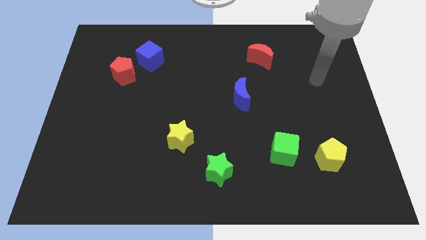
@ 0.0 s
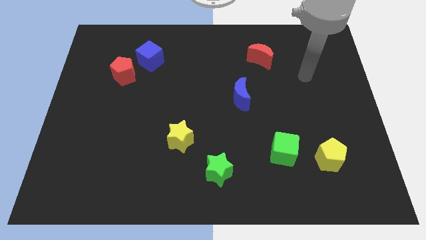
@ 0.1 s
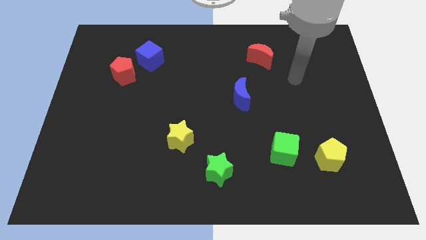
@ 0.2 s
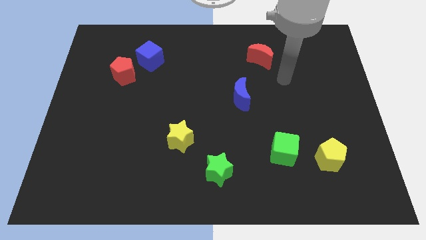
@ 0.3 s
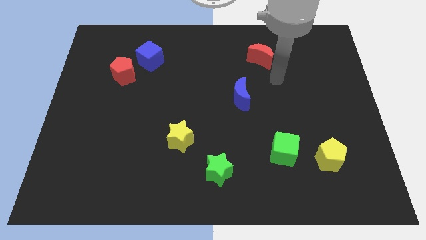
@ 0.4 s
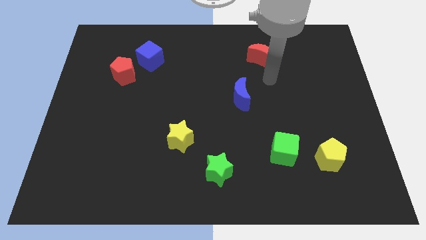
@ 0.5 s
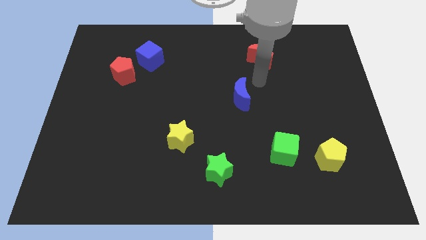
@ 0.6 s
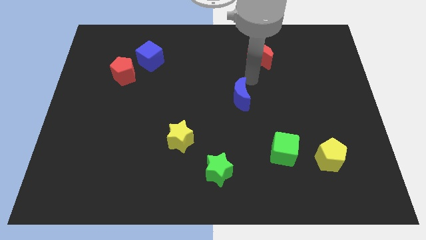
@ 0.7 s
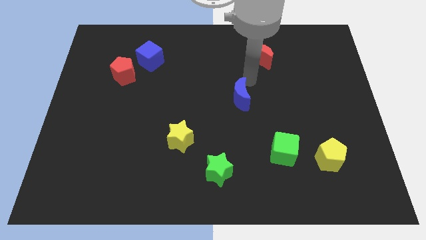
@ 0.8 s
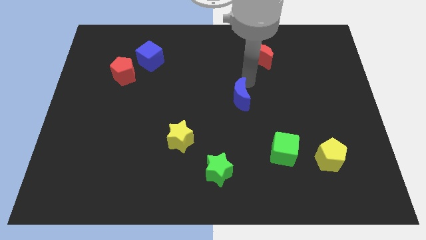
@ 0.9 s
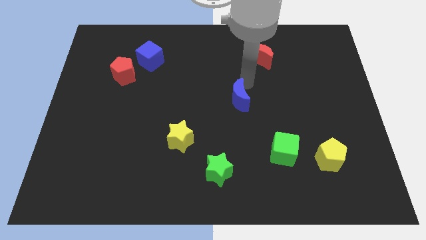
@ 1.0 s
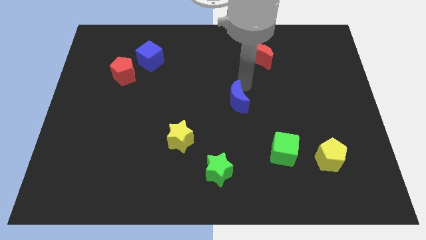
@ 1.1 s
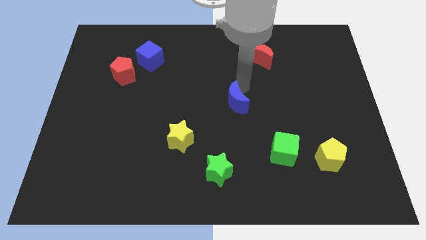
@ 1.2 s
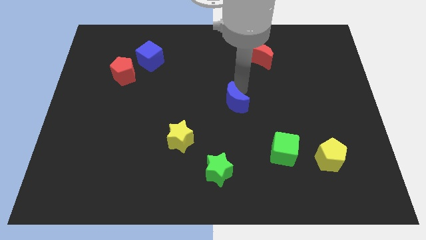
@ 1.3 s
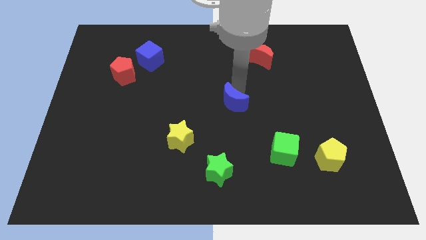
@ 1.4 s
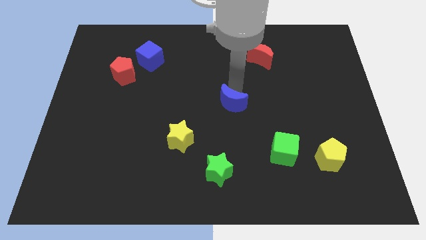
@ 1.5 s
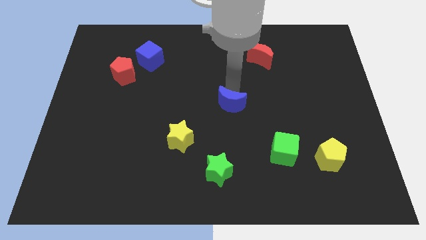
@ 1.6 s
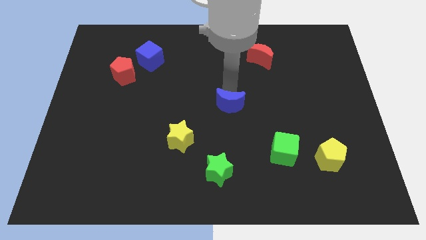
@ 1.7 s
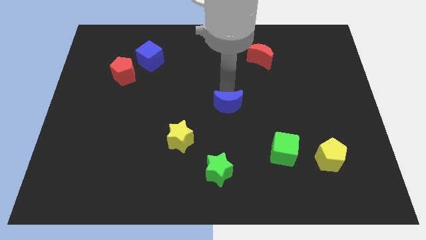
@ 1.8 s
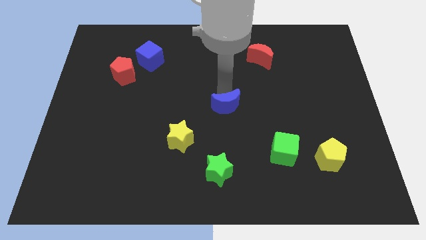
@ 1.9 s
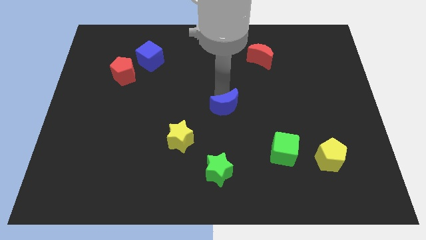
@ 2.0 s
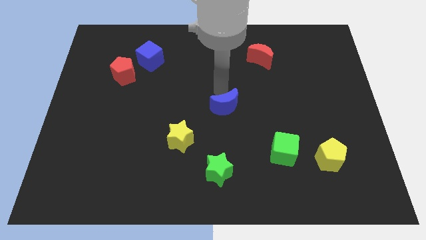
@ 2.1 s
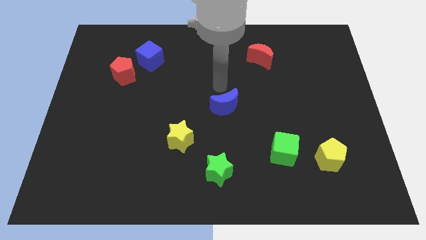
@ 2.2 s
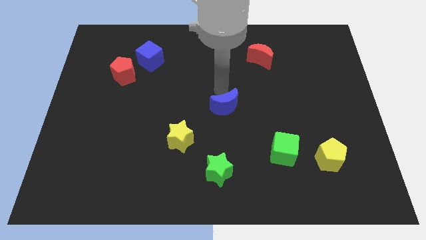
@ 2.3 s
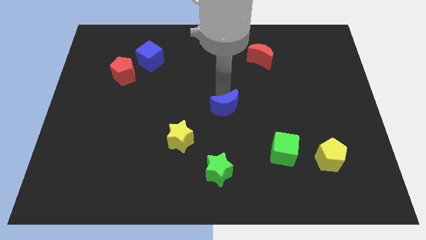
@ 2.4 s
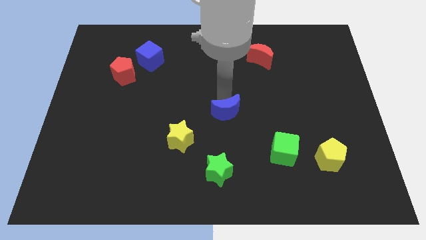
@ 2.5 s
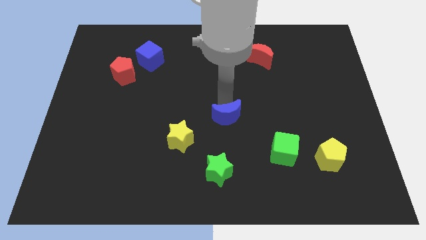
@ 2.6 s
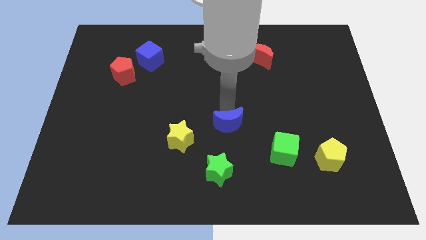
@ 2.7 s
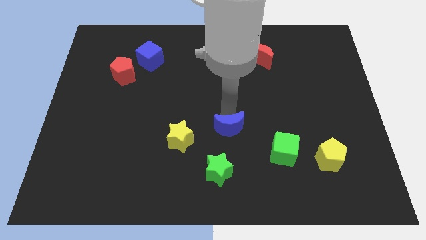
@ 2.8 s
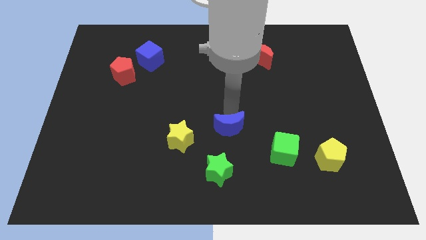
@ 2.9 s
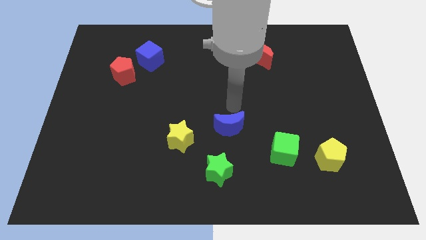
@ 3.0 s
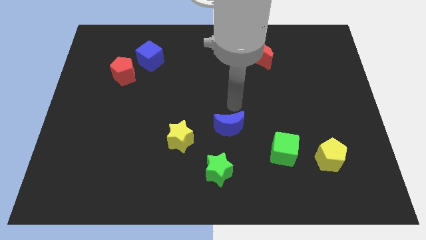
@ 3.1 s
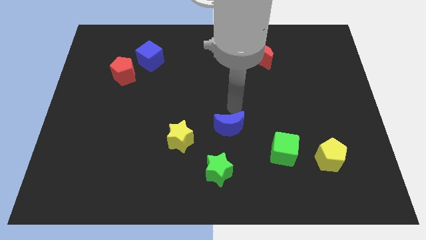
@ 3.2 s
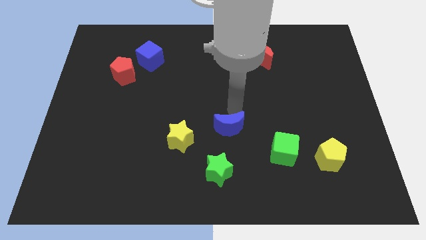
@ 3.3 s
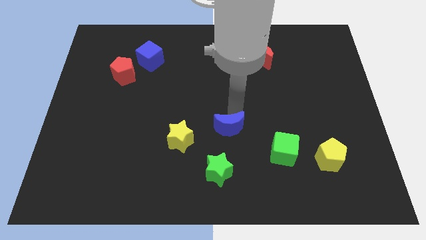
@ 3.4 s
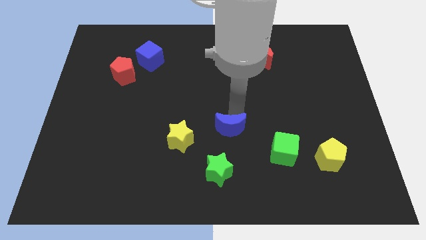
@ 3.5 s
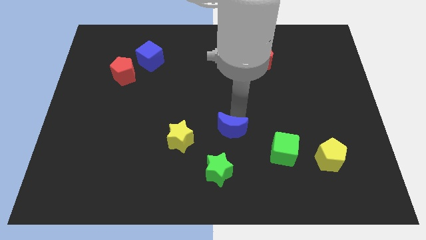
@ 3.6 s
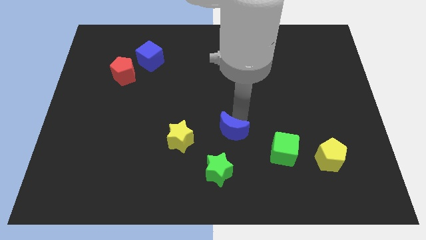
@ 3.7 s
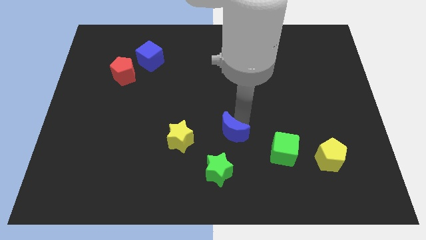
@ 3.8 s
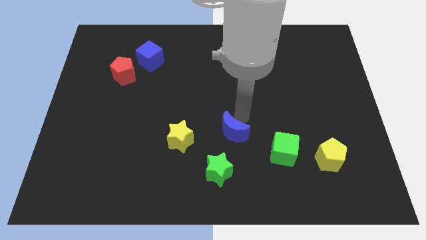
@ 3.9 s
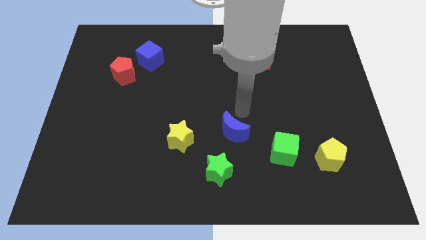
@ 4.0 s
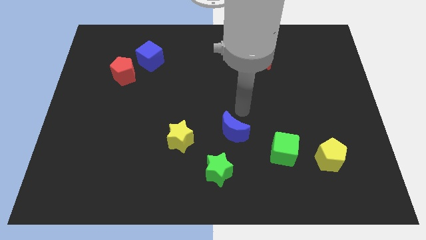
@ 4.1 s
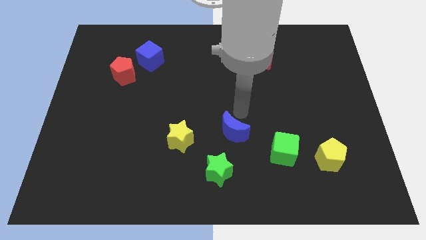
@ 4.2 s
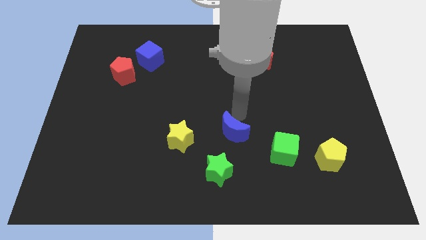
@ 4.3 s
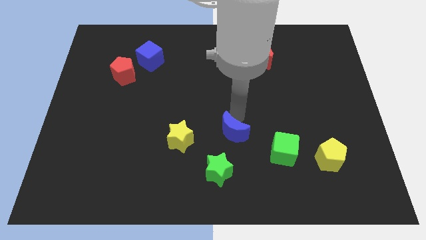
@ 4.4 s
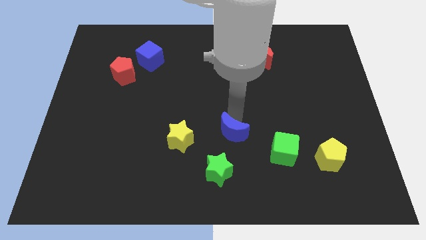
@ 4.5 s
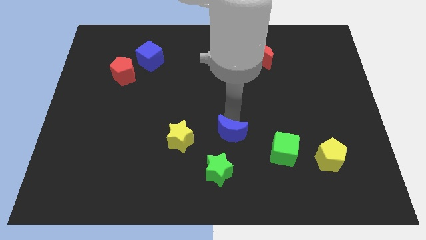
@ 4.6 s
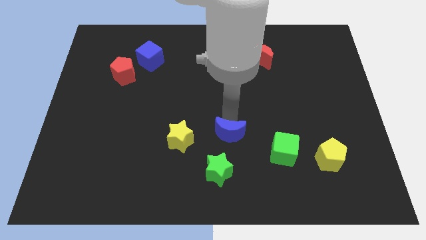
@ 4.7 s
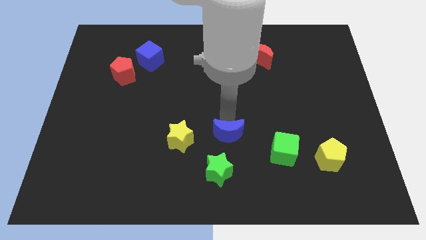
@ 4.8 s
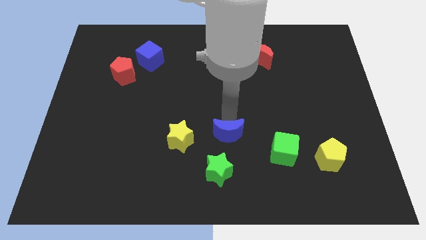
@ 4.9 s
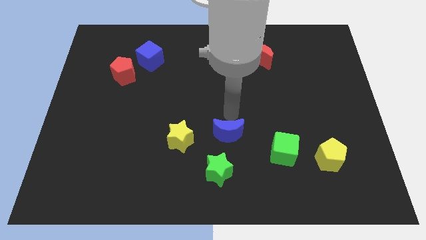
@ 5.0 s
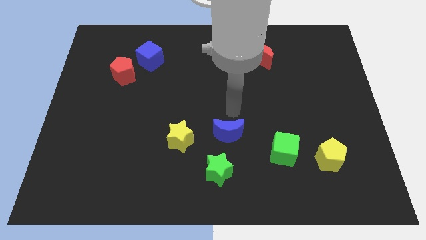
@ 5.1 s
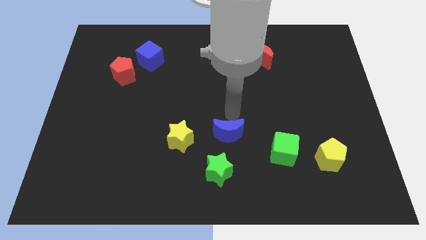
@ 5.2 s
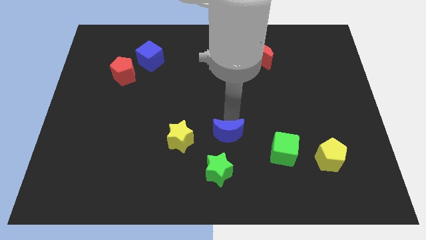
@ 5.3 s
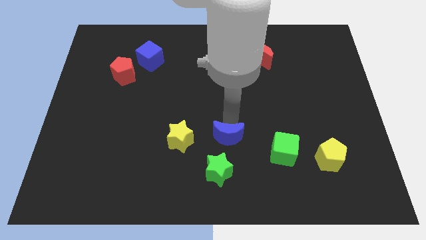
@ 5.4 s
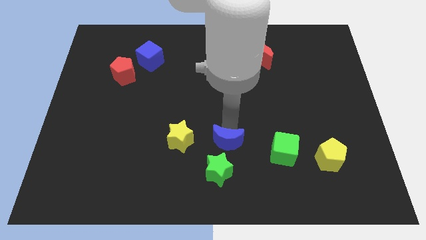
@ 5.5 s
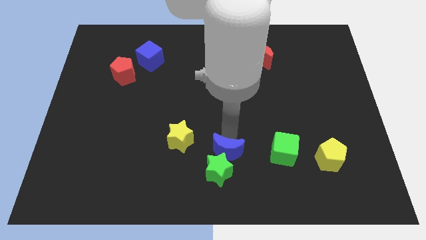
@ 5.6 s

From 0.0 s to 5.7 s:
slide the blue moon close to the green star

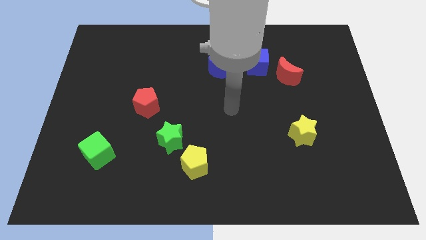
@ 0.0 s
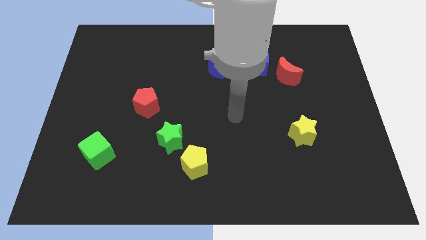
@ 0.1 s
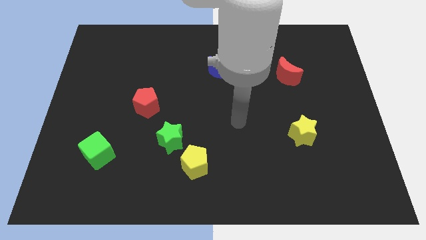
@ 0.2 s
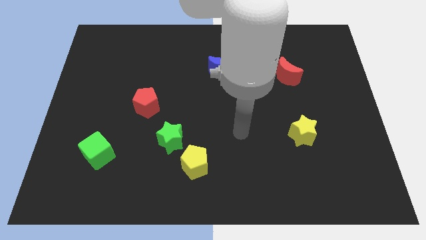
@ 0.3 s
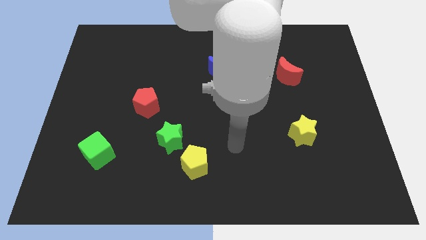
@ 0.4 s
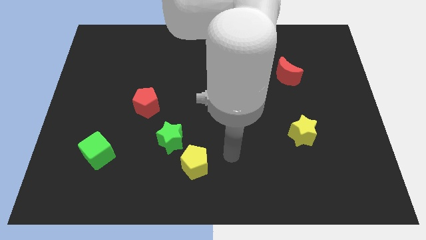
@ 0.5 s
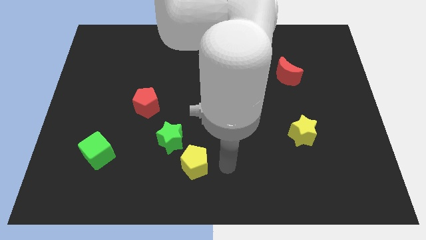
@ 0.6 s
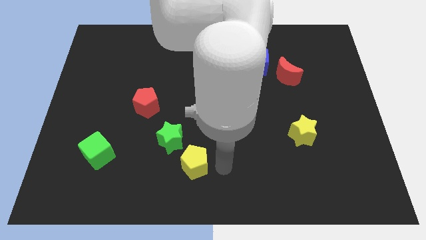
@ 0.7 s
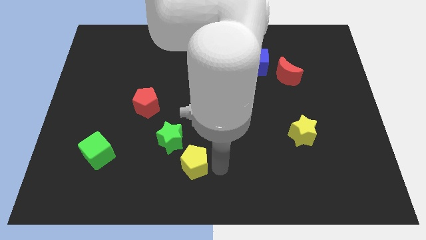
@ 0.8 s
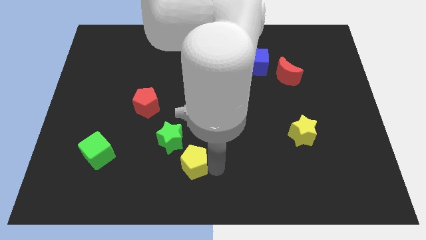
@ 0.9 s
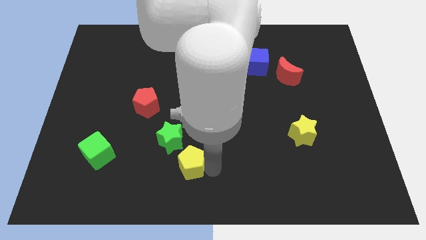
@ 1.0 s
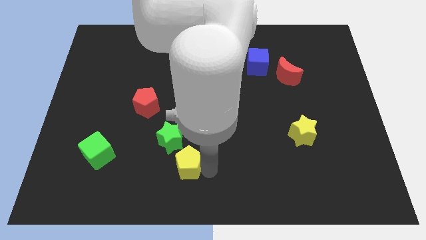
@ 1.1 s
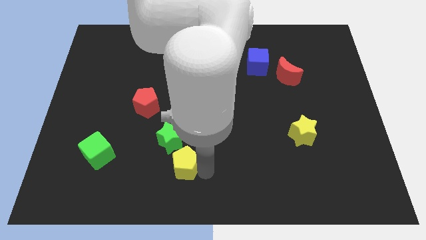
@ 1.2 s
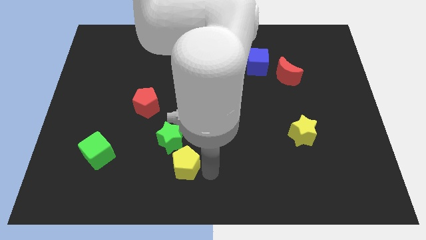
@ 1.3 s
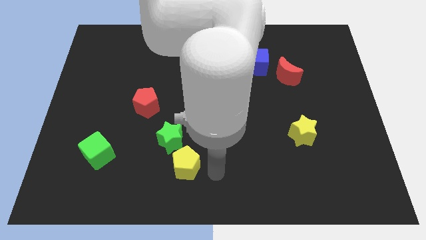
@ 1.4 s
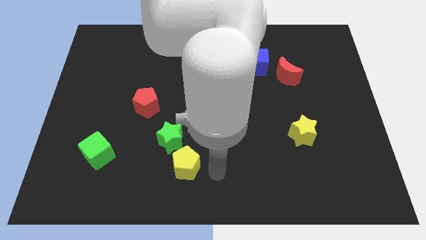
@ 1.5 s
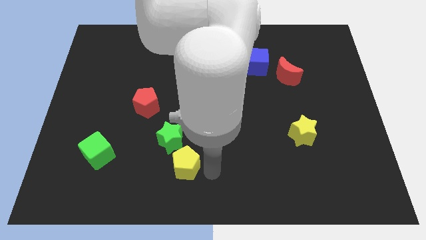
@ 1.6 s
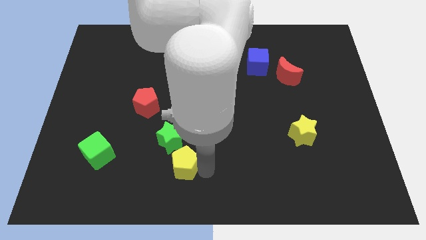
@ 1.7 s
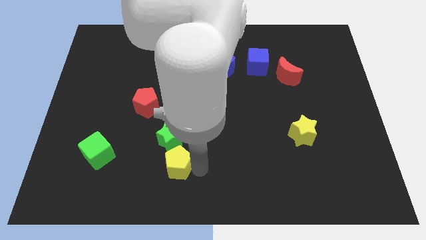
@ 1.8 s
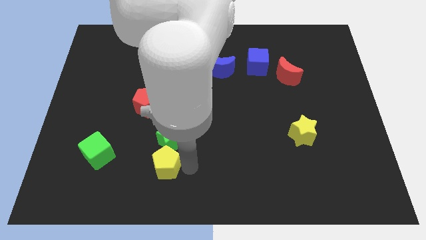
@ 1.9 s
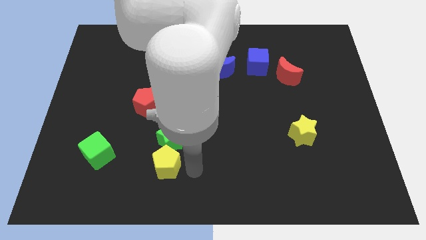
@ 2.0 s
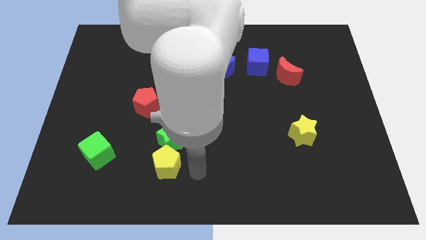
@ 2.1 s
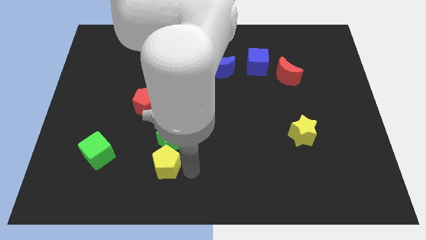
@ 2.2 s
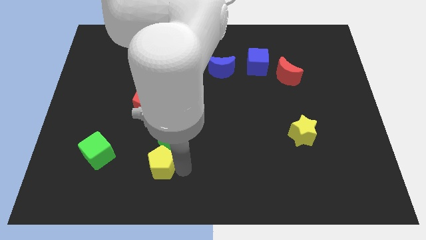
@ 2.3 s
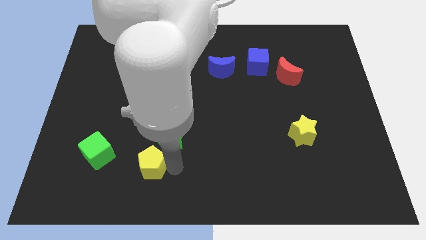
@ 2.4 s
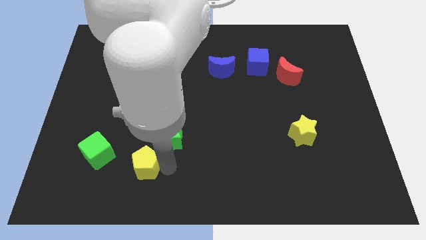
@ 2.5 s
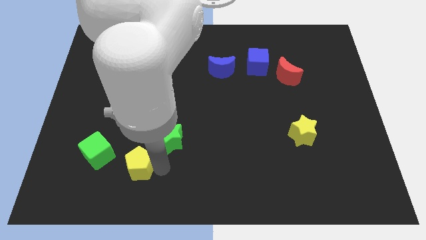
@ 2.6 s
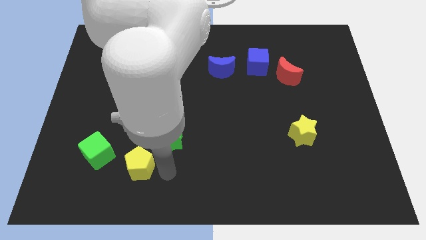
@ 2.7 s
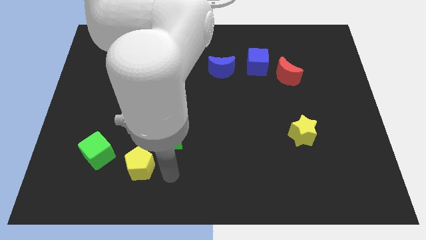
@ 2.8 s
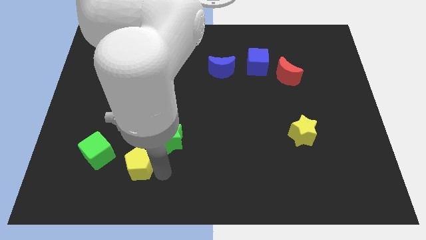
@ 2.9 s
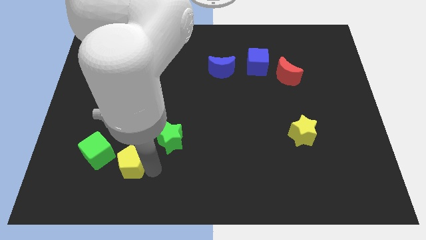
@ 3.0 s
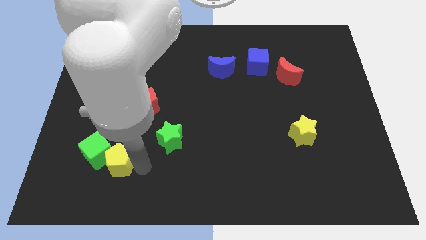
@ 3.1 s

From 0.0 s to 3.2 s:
put the yellow pentagon next to the green cube
